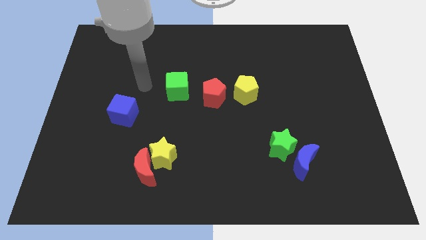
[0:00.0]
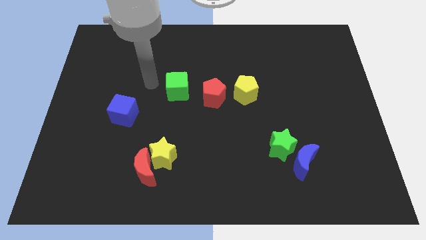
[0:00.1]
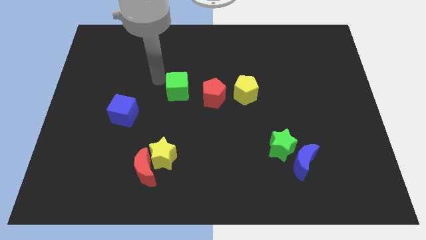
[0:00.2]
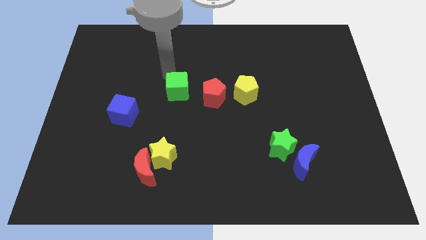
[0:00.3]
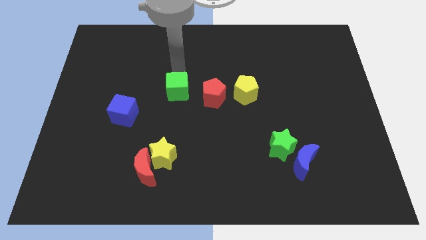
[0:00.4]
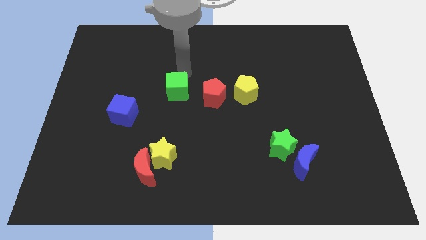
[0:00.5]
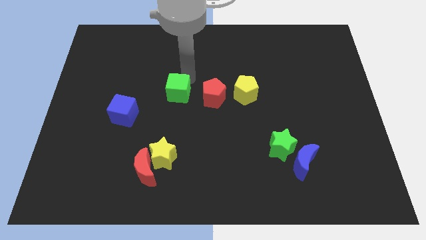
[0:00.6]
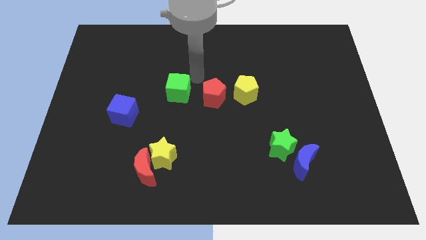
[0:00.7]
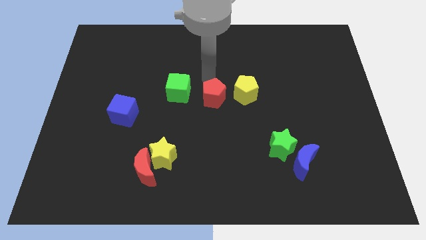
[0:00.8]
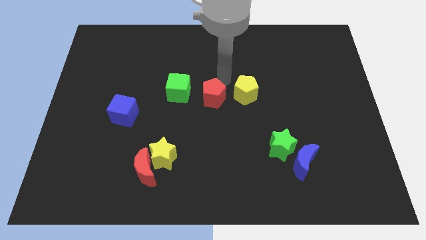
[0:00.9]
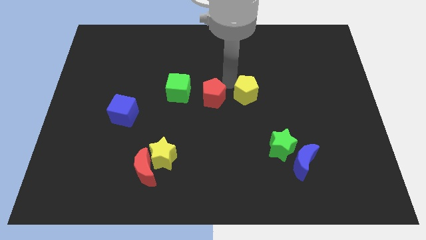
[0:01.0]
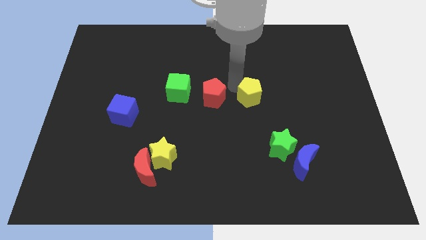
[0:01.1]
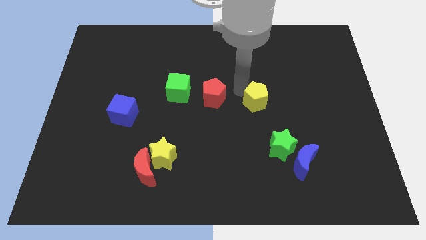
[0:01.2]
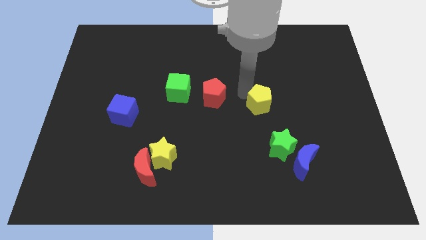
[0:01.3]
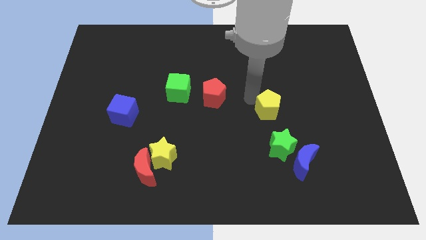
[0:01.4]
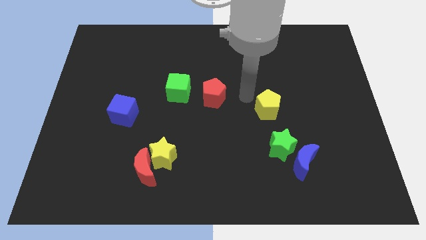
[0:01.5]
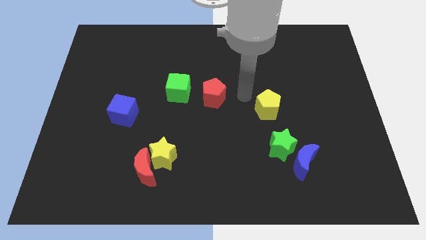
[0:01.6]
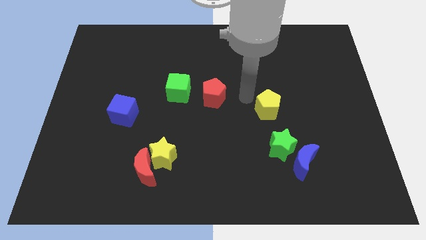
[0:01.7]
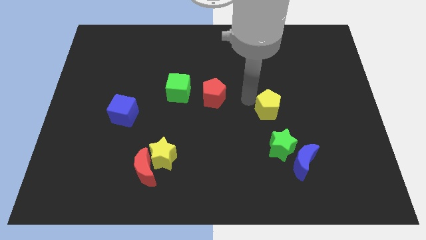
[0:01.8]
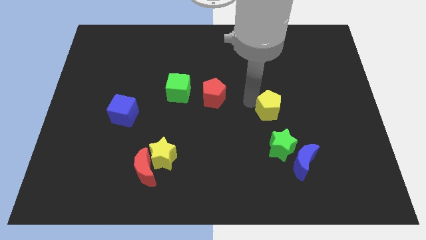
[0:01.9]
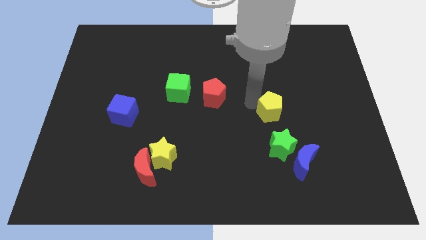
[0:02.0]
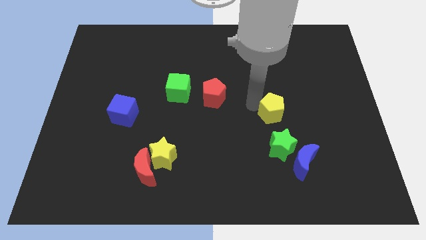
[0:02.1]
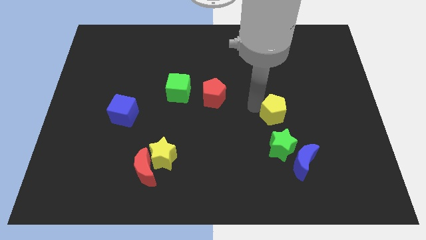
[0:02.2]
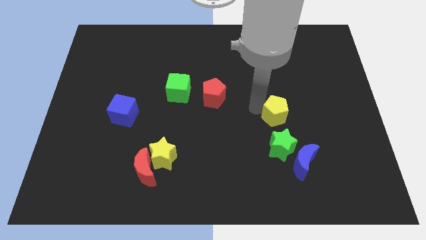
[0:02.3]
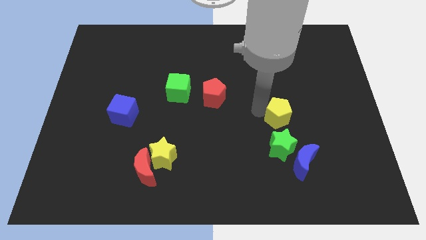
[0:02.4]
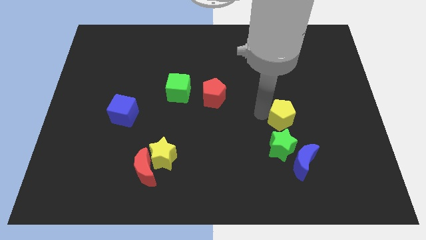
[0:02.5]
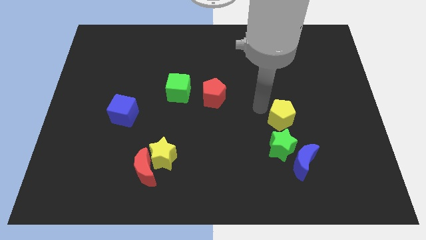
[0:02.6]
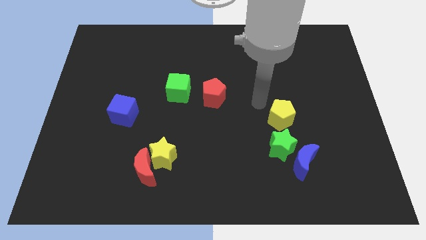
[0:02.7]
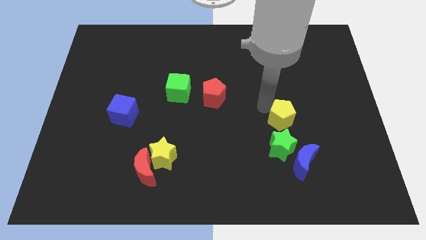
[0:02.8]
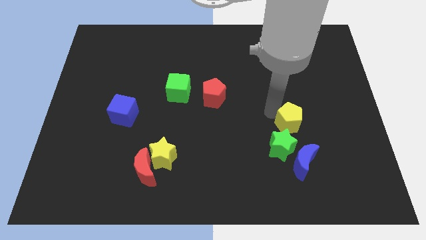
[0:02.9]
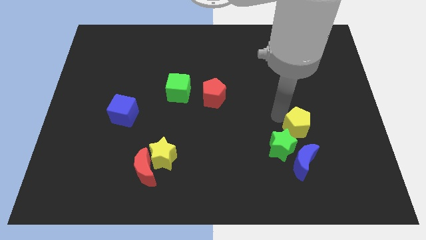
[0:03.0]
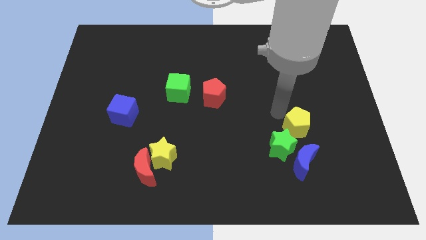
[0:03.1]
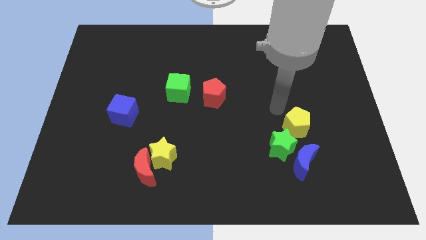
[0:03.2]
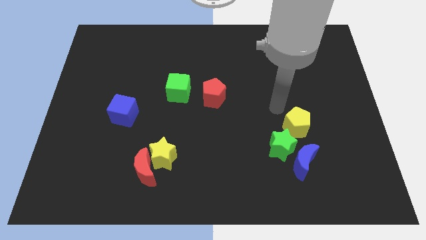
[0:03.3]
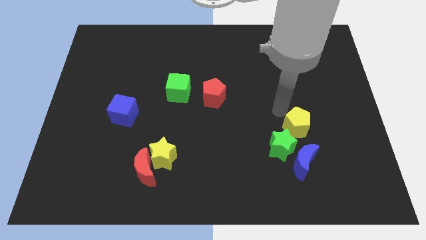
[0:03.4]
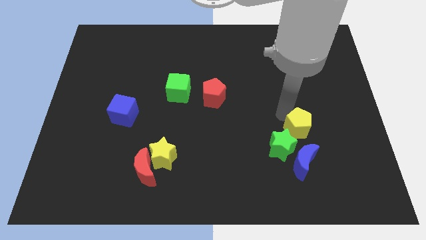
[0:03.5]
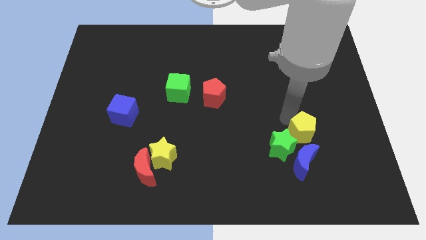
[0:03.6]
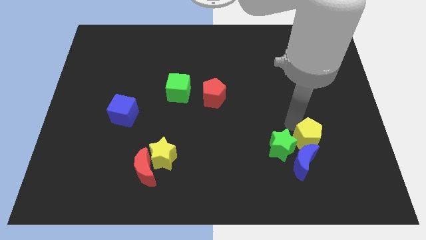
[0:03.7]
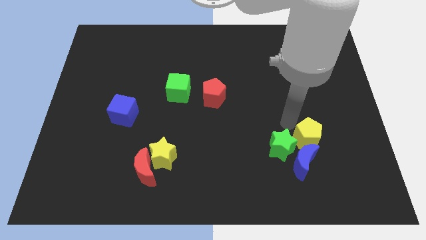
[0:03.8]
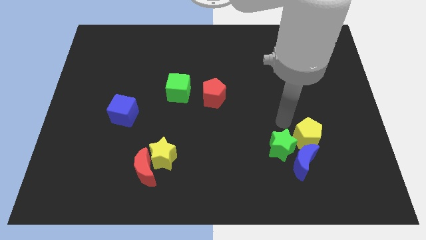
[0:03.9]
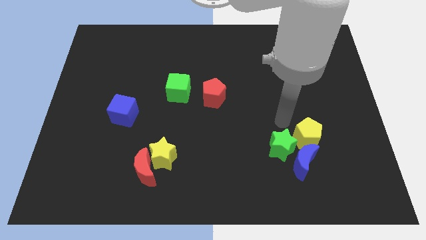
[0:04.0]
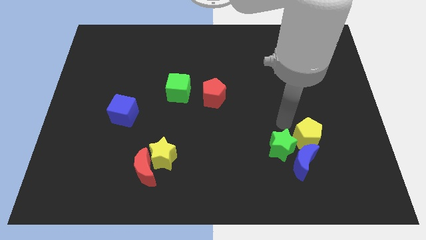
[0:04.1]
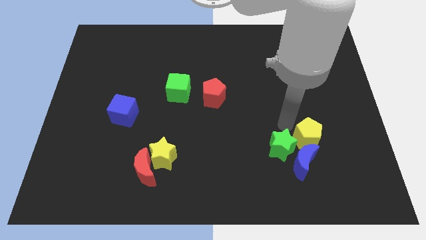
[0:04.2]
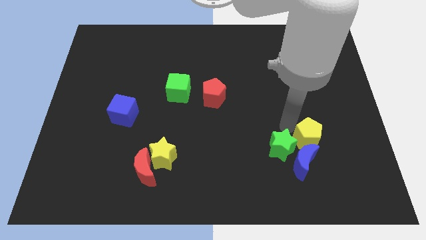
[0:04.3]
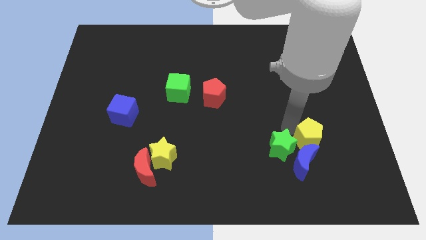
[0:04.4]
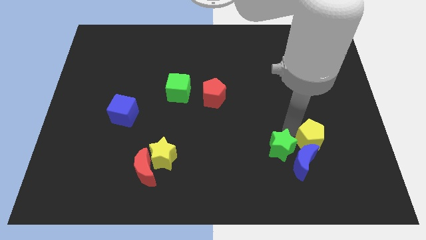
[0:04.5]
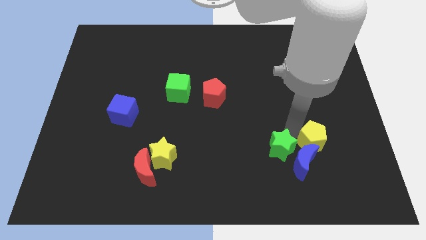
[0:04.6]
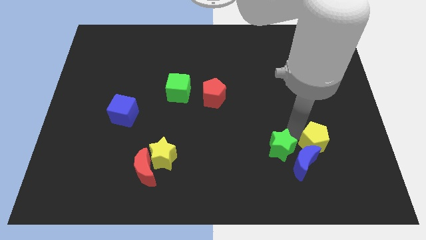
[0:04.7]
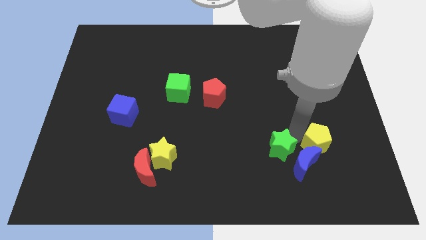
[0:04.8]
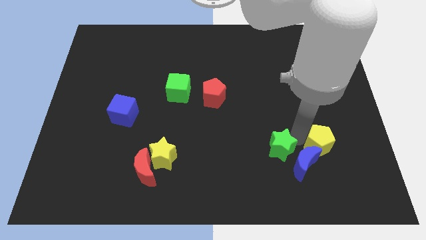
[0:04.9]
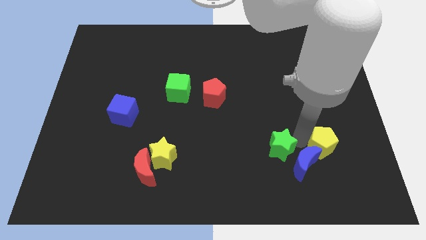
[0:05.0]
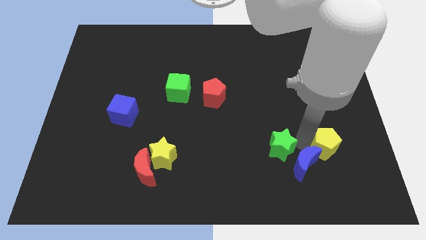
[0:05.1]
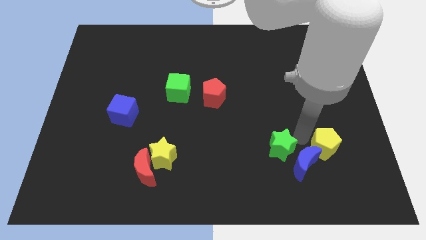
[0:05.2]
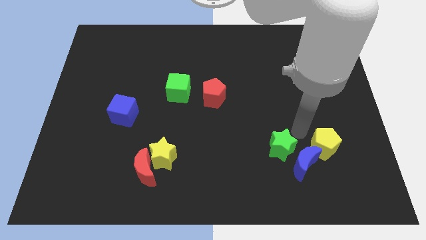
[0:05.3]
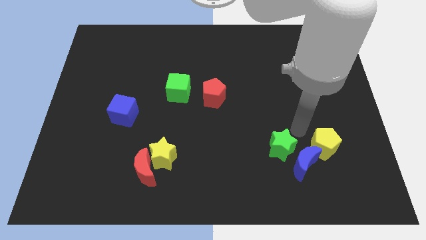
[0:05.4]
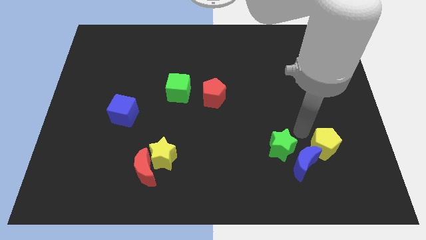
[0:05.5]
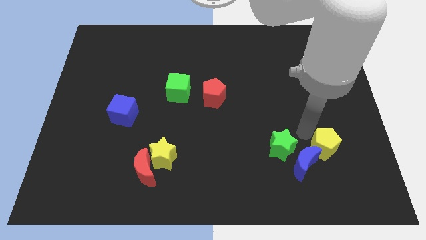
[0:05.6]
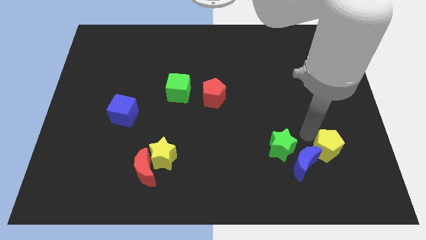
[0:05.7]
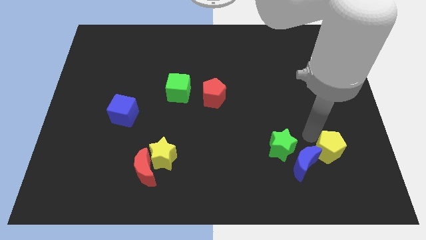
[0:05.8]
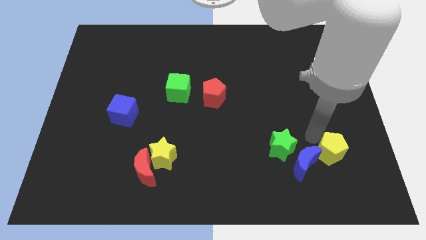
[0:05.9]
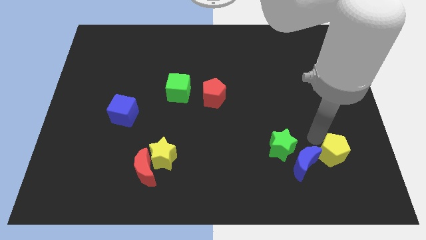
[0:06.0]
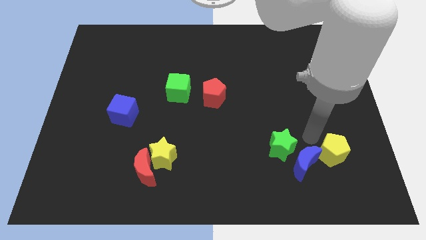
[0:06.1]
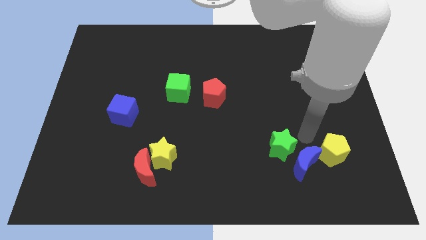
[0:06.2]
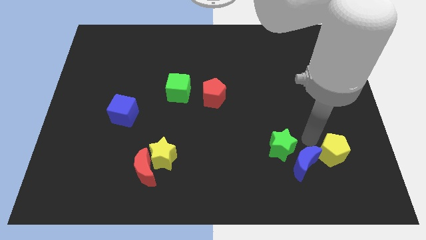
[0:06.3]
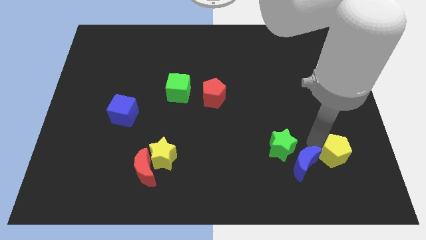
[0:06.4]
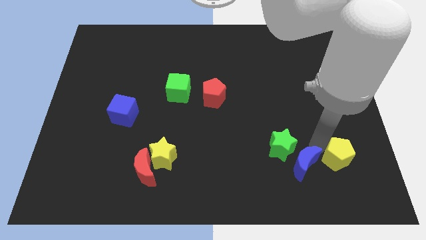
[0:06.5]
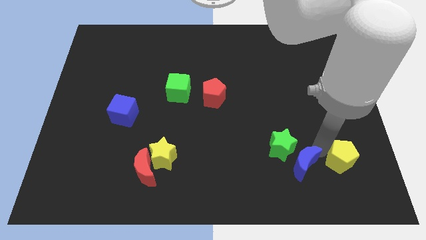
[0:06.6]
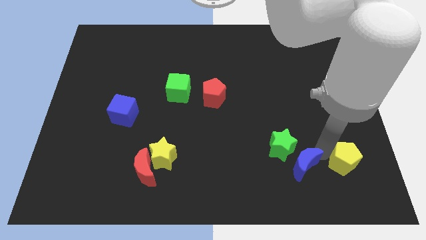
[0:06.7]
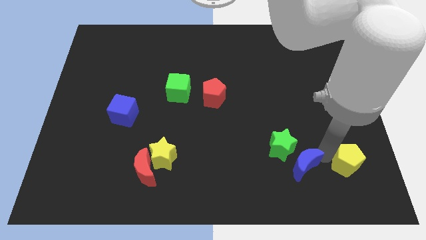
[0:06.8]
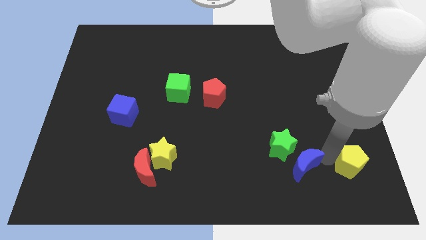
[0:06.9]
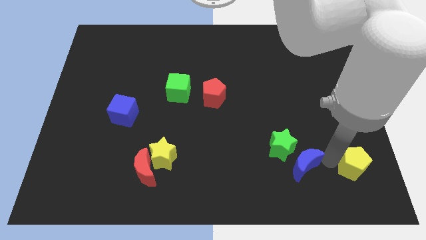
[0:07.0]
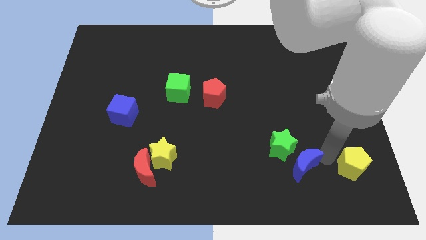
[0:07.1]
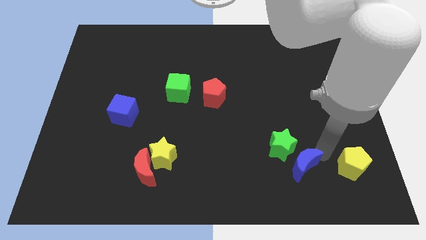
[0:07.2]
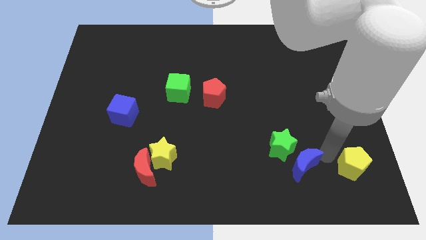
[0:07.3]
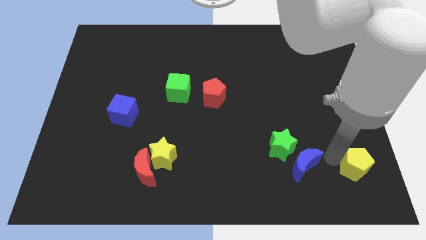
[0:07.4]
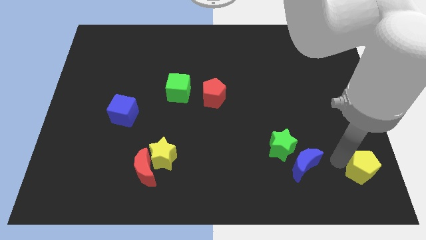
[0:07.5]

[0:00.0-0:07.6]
move the yellow pentagon to the lower right corner
